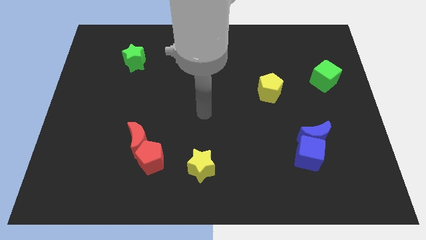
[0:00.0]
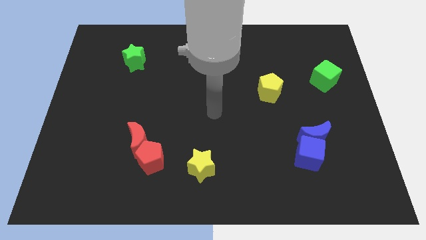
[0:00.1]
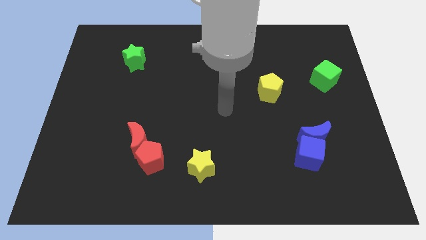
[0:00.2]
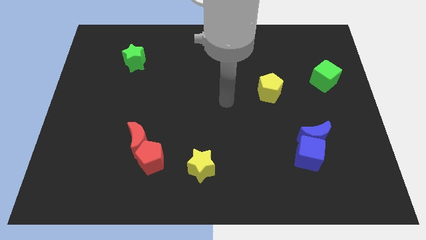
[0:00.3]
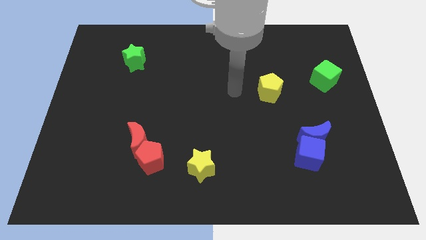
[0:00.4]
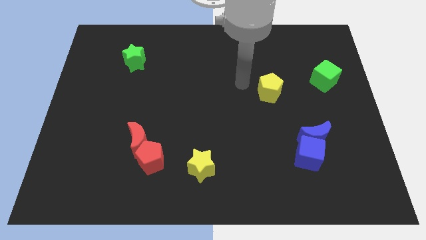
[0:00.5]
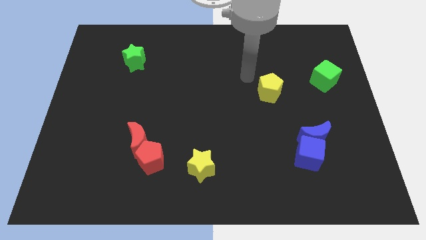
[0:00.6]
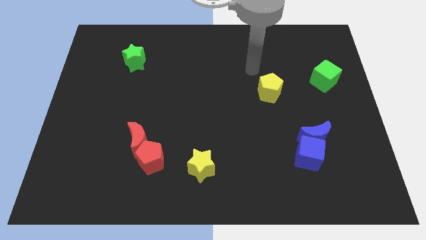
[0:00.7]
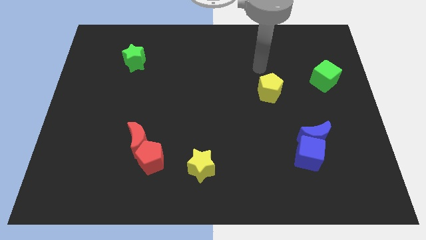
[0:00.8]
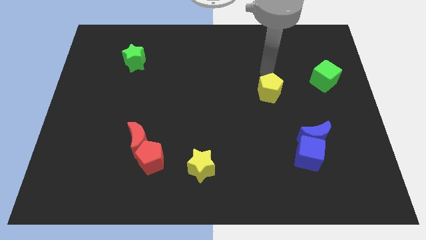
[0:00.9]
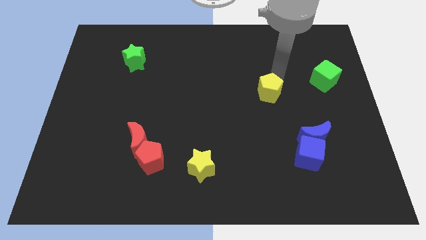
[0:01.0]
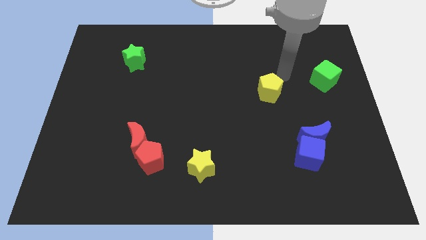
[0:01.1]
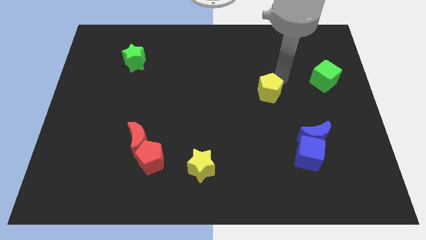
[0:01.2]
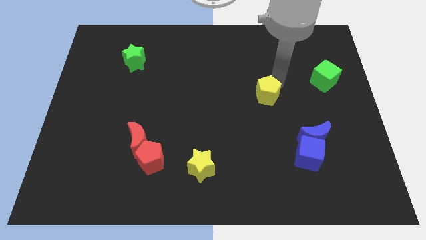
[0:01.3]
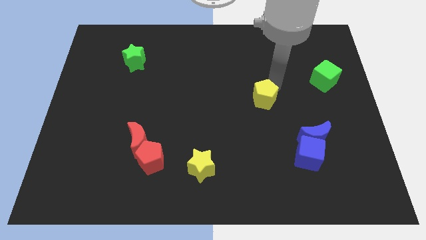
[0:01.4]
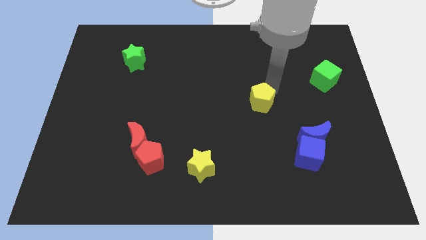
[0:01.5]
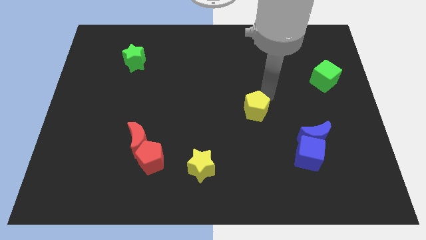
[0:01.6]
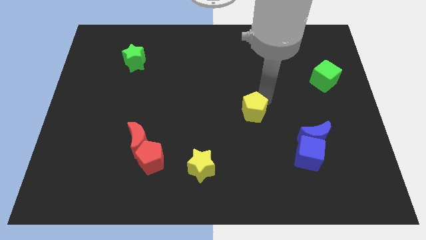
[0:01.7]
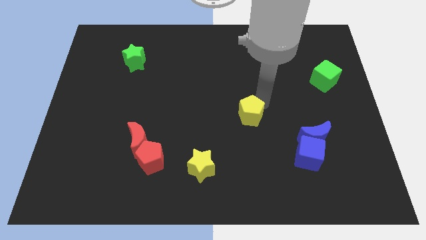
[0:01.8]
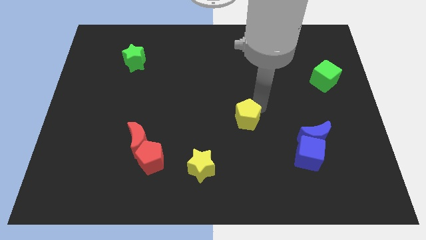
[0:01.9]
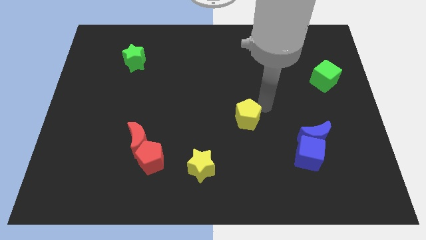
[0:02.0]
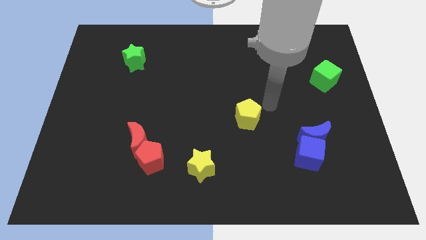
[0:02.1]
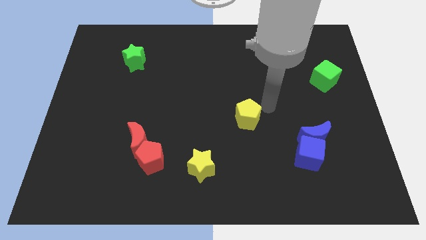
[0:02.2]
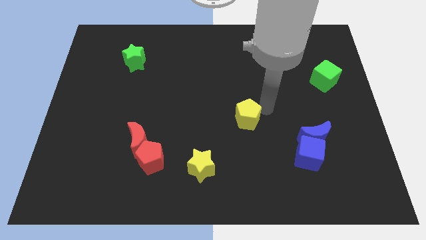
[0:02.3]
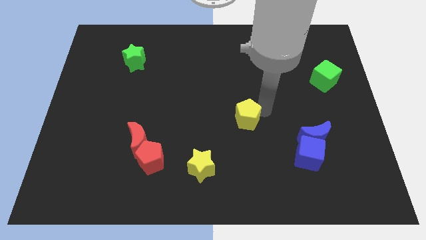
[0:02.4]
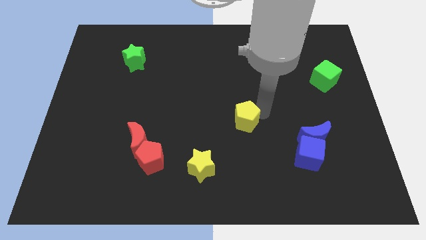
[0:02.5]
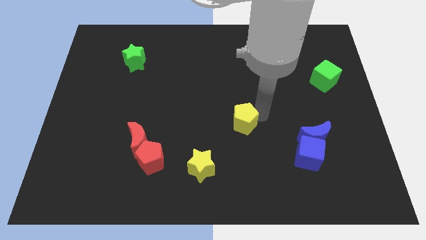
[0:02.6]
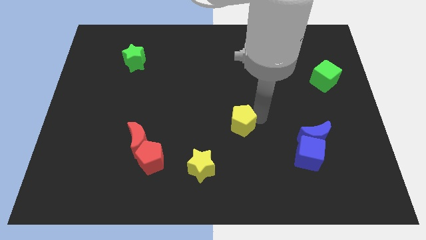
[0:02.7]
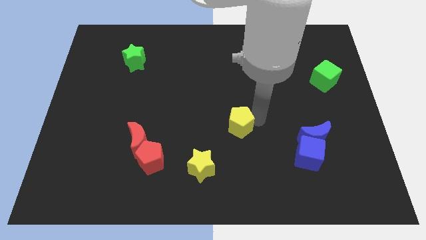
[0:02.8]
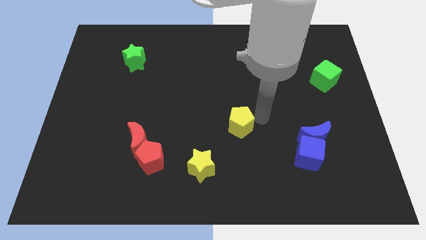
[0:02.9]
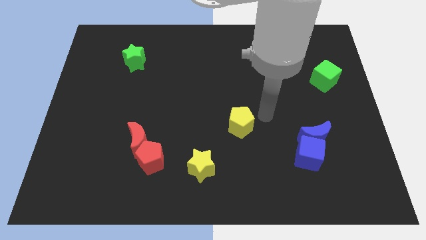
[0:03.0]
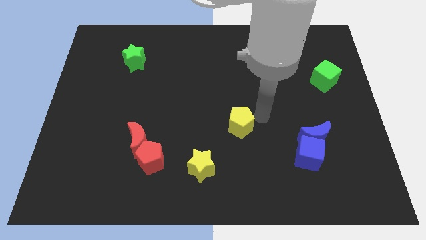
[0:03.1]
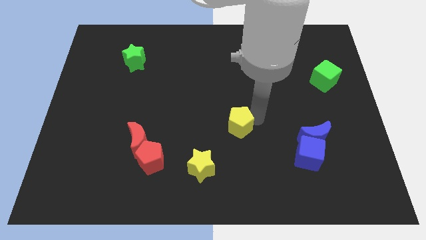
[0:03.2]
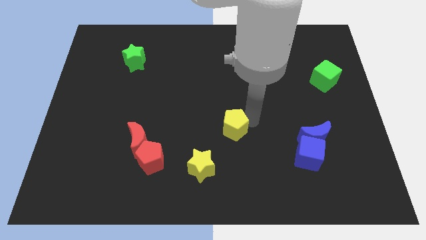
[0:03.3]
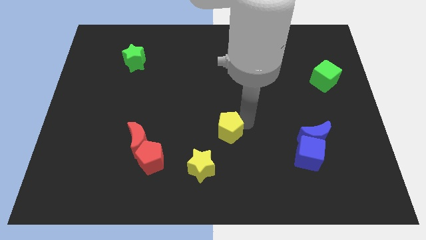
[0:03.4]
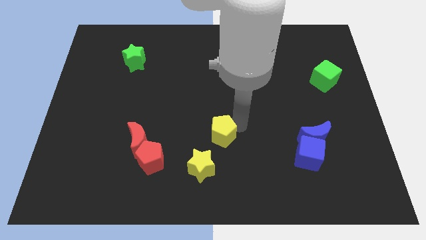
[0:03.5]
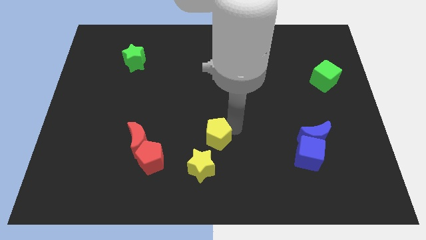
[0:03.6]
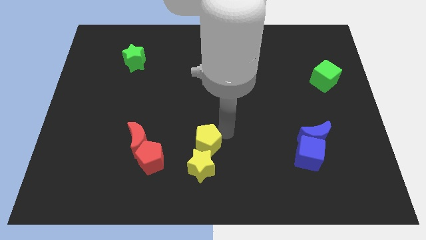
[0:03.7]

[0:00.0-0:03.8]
slide the yellow pentagon diagonally downwards and left

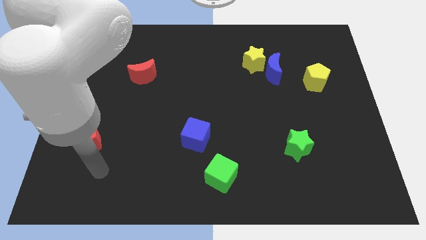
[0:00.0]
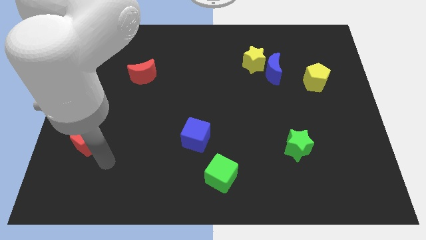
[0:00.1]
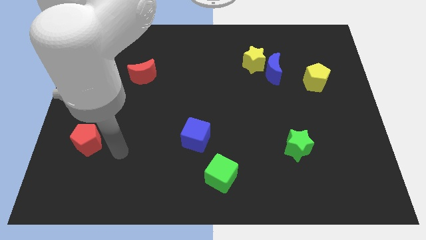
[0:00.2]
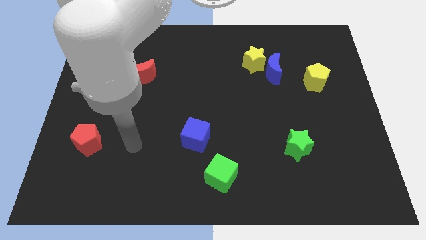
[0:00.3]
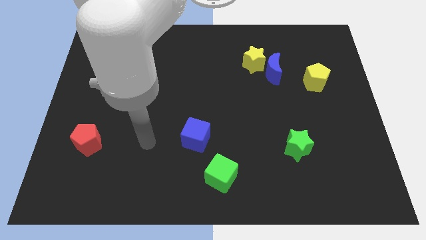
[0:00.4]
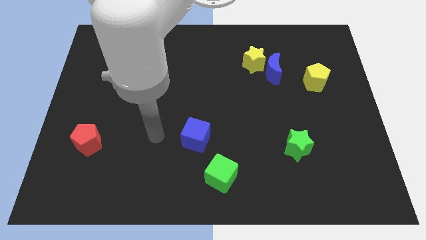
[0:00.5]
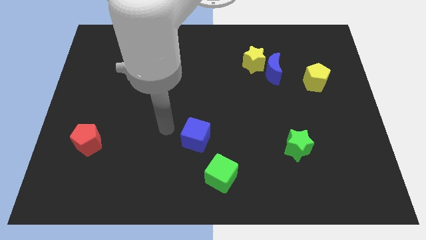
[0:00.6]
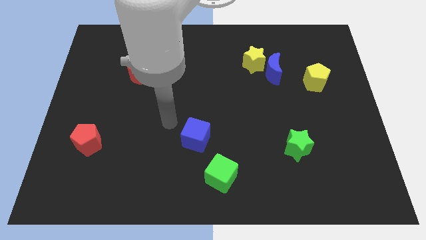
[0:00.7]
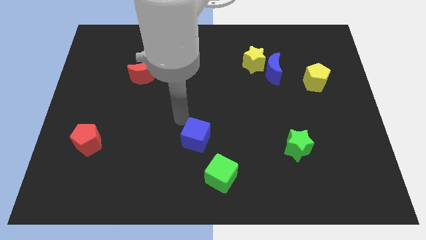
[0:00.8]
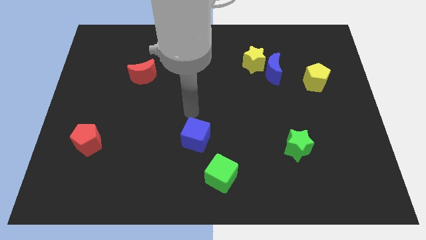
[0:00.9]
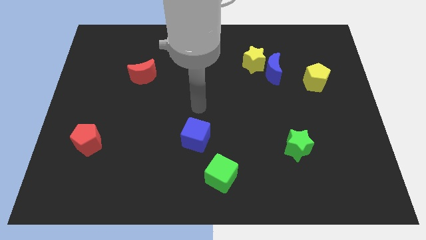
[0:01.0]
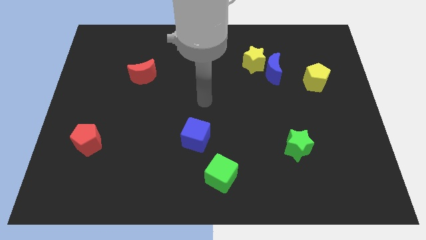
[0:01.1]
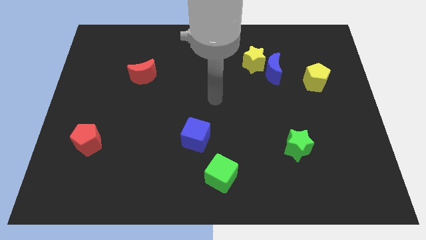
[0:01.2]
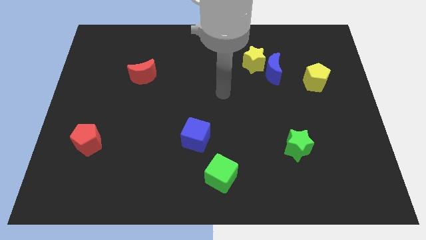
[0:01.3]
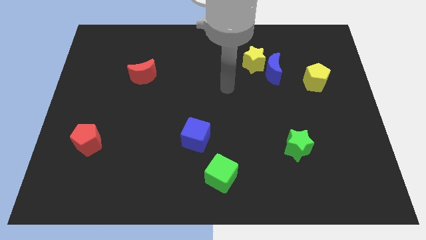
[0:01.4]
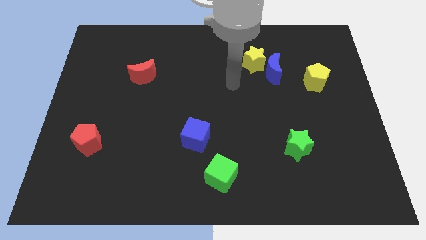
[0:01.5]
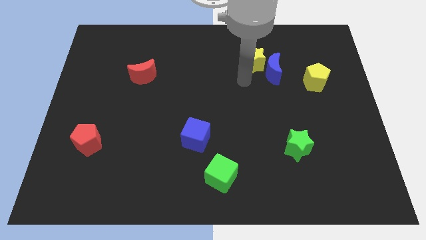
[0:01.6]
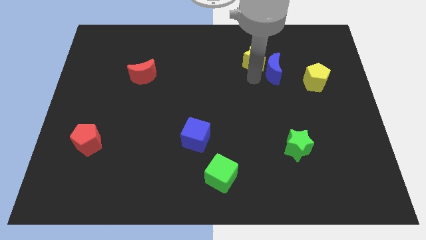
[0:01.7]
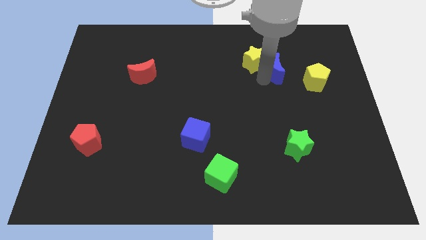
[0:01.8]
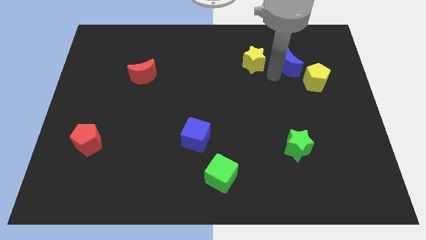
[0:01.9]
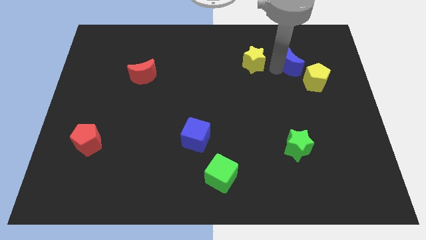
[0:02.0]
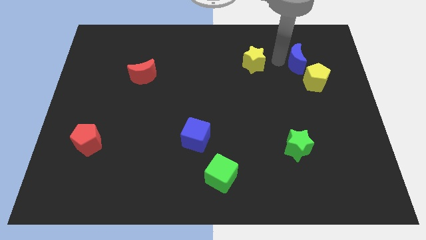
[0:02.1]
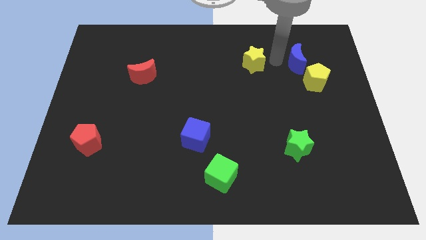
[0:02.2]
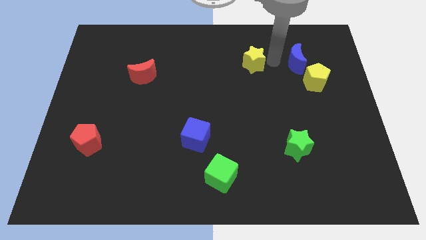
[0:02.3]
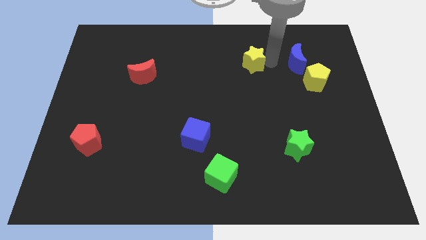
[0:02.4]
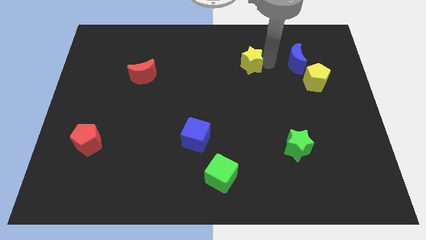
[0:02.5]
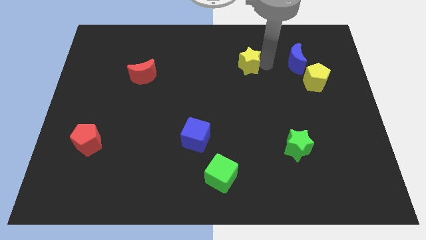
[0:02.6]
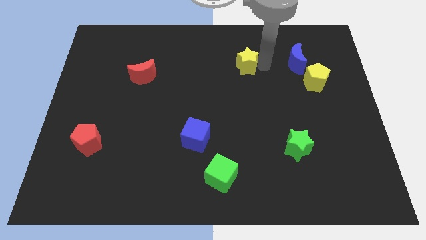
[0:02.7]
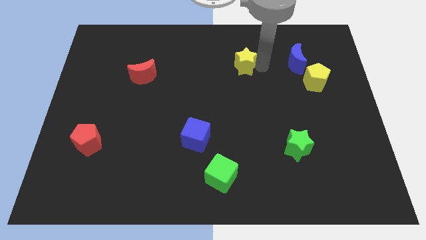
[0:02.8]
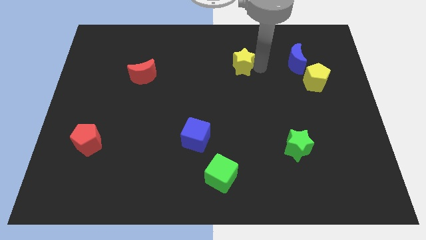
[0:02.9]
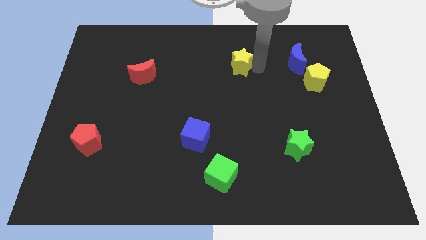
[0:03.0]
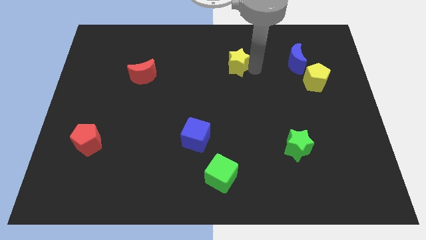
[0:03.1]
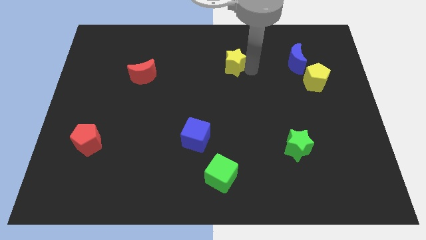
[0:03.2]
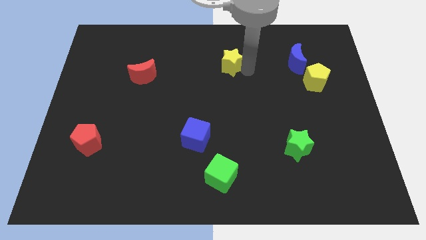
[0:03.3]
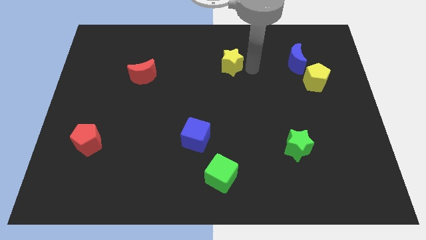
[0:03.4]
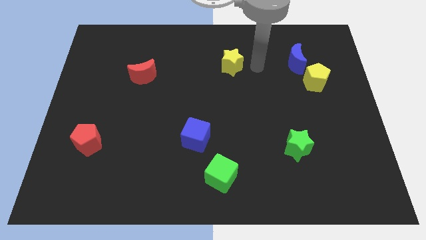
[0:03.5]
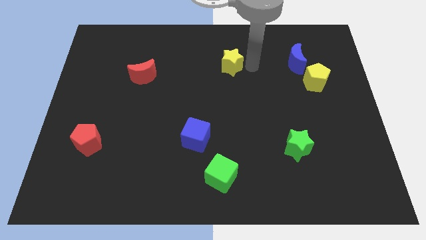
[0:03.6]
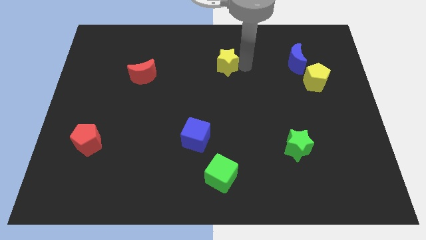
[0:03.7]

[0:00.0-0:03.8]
slightly move the yellow star to the left

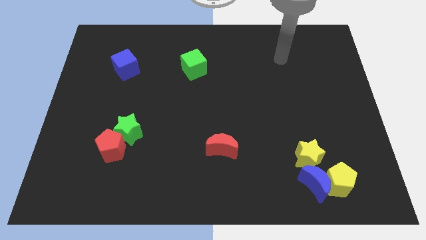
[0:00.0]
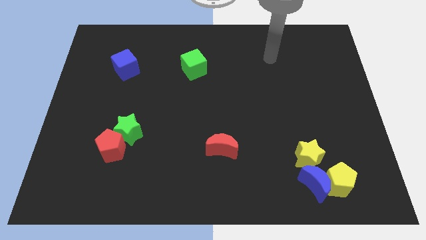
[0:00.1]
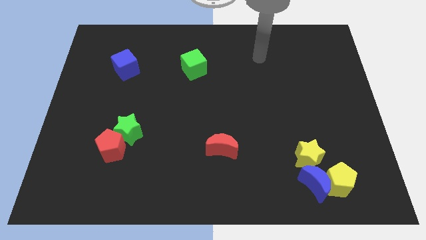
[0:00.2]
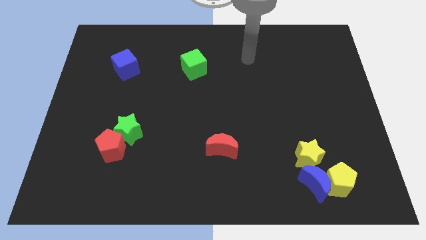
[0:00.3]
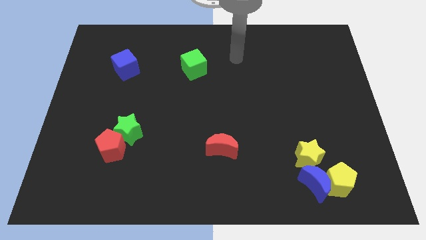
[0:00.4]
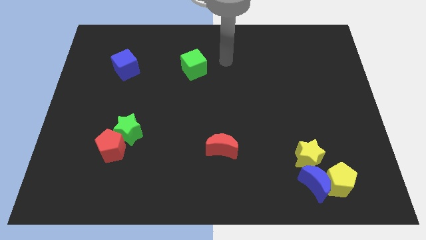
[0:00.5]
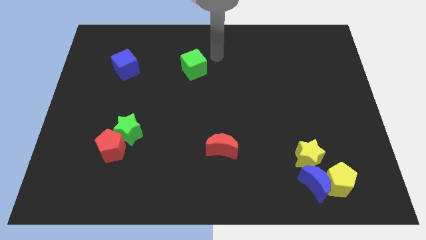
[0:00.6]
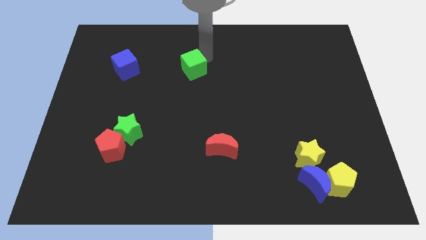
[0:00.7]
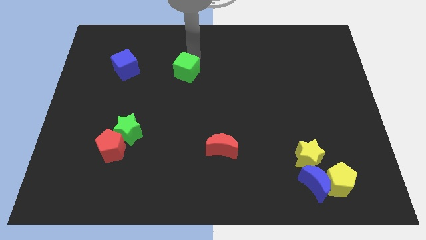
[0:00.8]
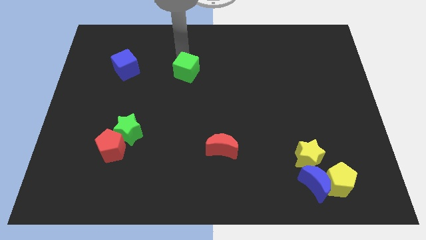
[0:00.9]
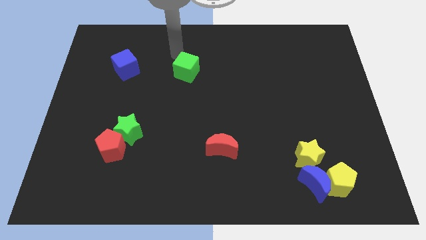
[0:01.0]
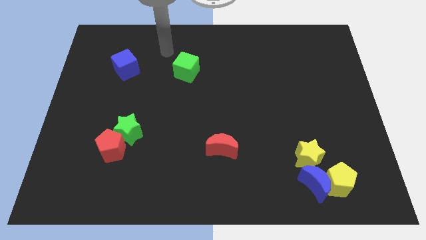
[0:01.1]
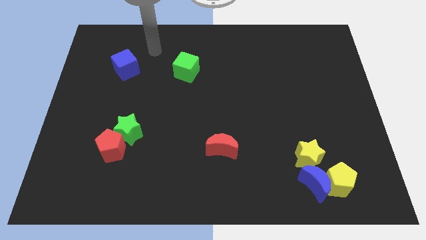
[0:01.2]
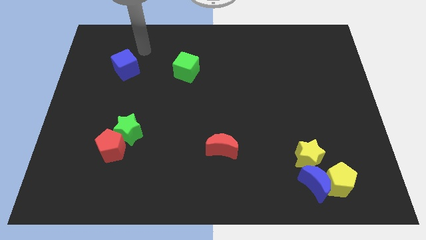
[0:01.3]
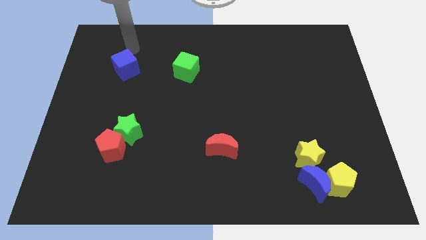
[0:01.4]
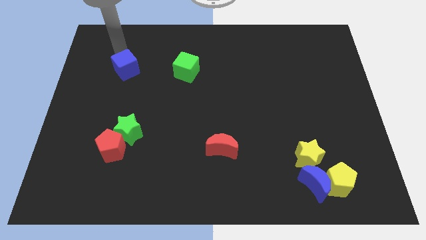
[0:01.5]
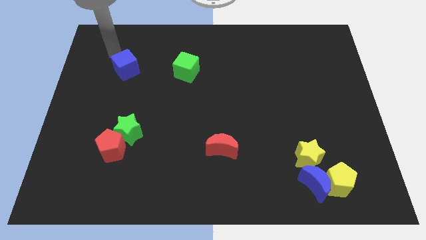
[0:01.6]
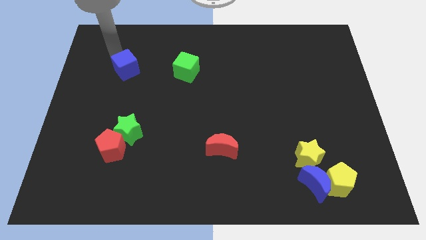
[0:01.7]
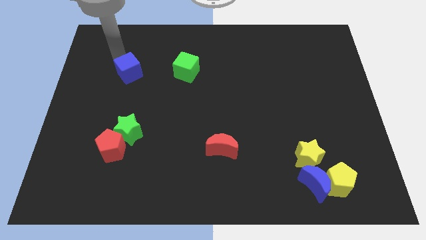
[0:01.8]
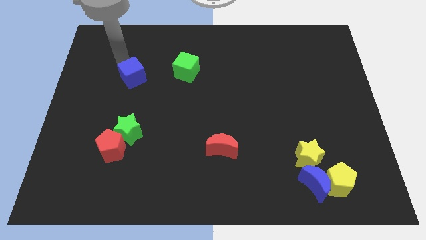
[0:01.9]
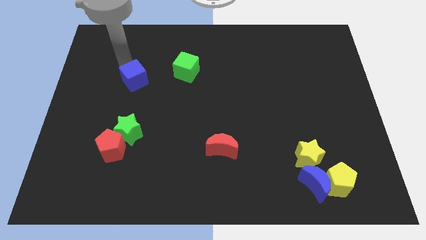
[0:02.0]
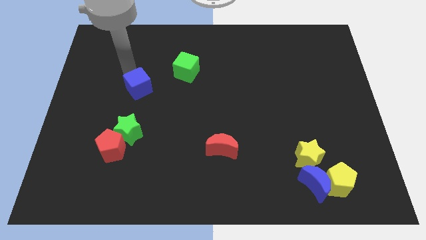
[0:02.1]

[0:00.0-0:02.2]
move the blue cube a little bit diagonally down and right
